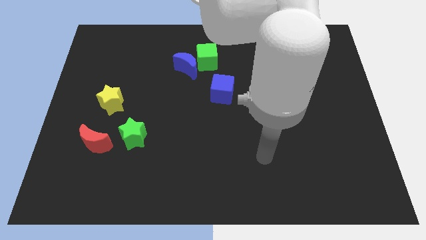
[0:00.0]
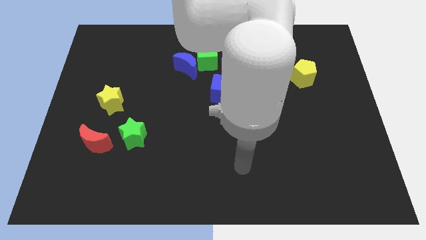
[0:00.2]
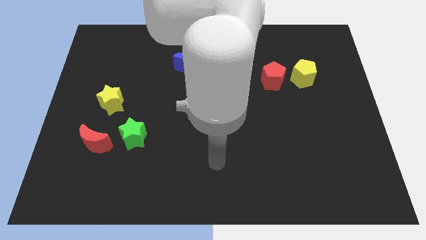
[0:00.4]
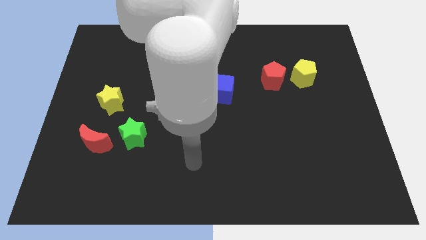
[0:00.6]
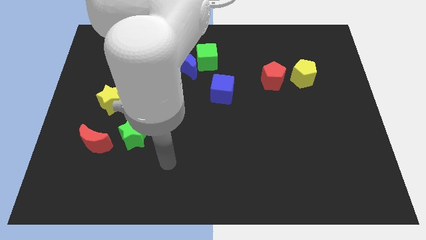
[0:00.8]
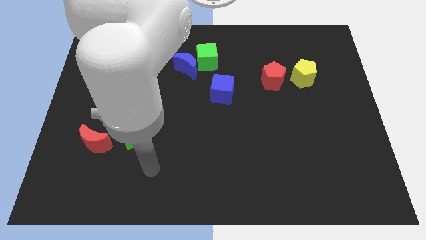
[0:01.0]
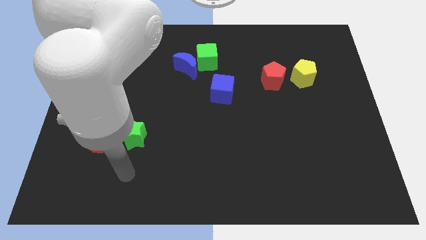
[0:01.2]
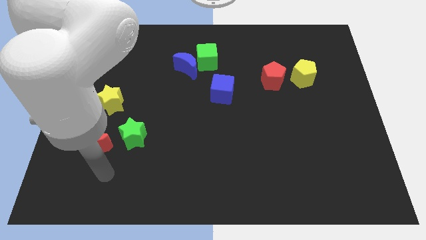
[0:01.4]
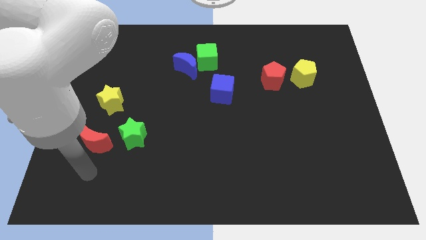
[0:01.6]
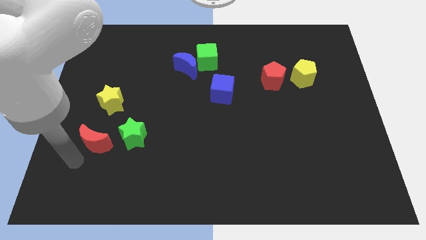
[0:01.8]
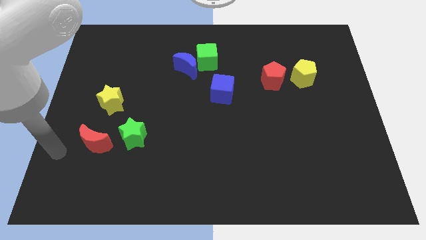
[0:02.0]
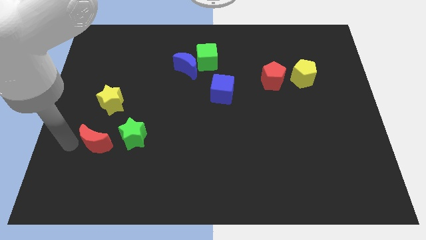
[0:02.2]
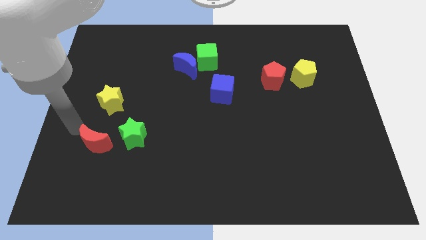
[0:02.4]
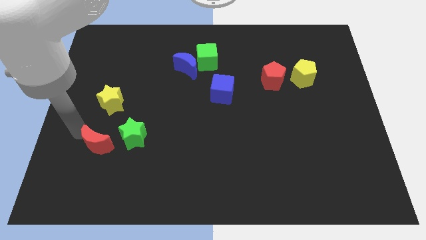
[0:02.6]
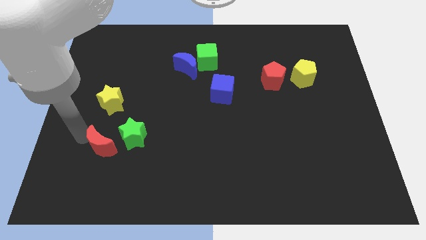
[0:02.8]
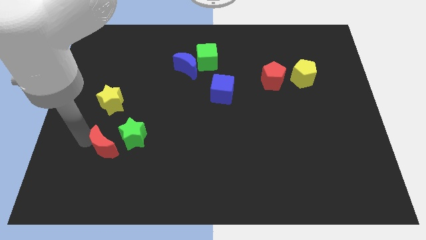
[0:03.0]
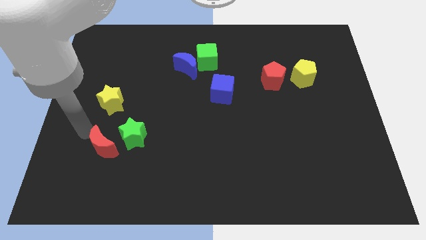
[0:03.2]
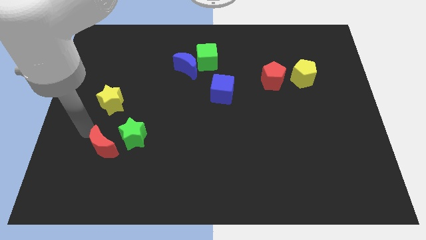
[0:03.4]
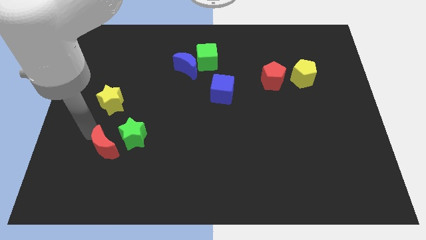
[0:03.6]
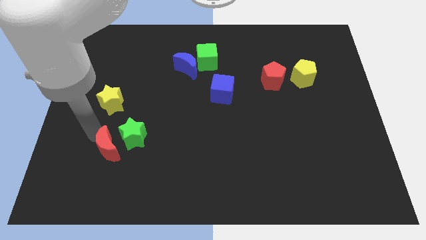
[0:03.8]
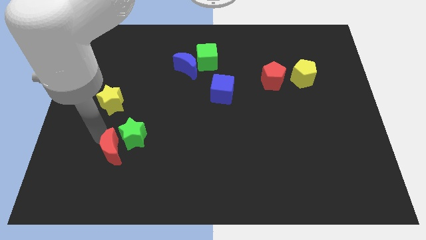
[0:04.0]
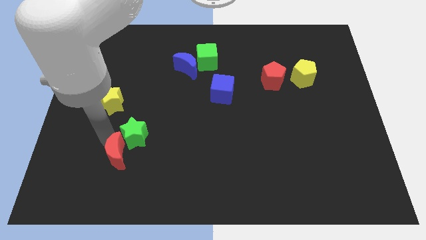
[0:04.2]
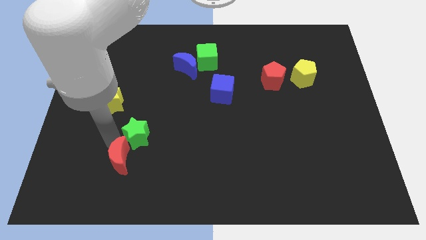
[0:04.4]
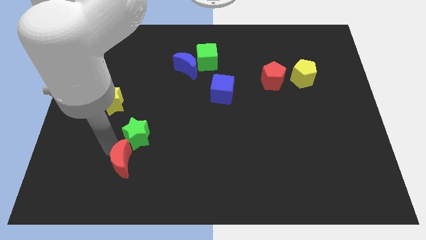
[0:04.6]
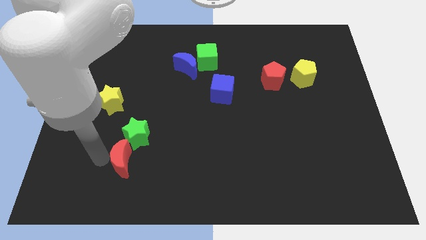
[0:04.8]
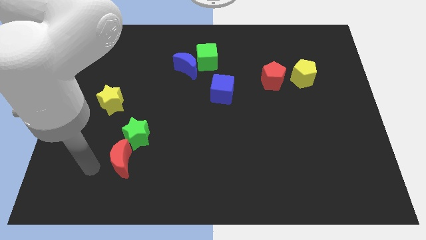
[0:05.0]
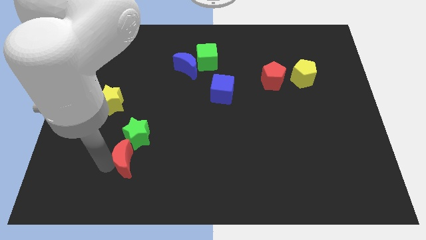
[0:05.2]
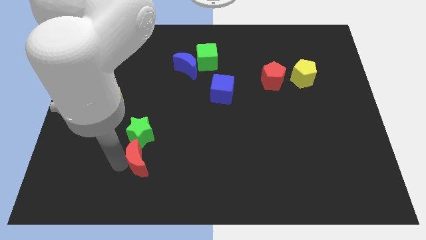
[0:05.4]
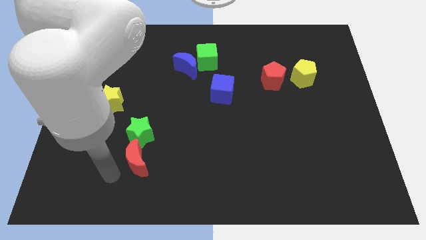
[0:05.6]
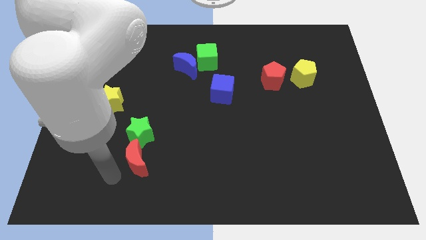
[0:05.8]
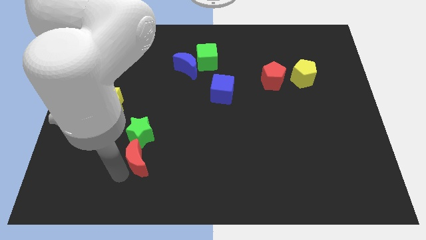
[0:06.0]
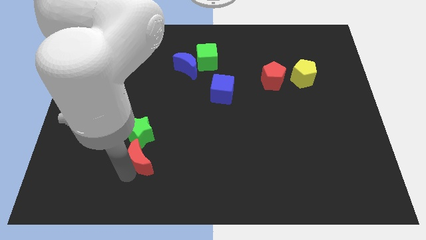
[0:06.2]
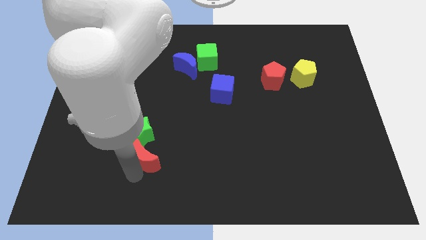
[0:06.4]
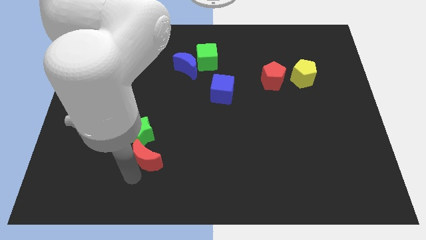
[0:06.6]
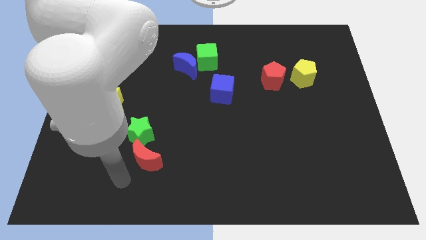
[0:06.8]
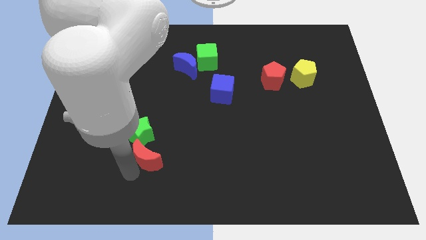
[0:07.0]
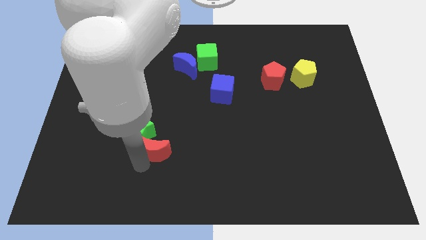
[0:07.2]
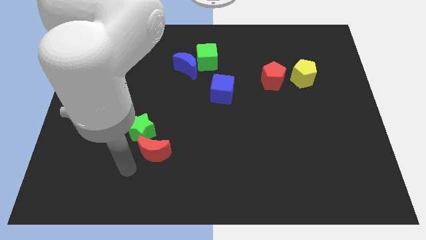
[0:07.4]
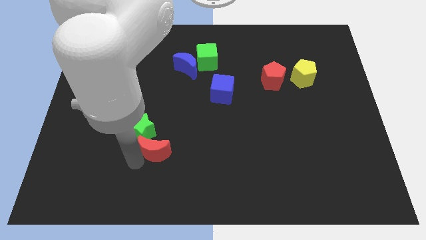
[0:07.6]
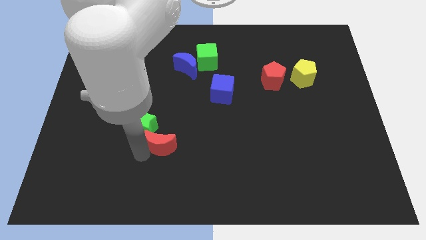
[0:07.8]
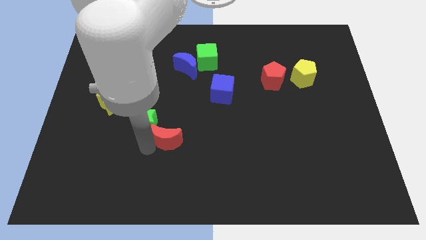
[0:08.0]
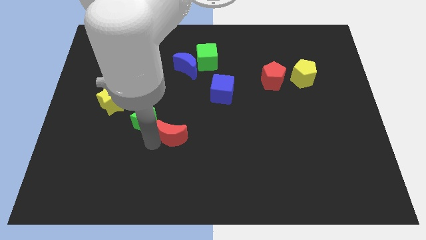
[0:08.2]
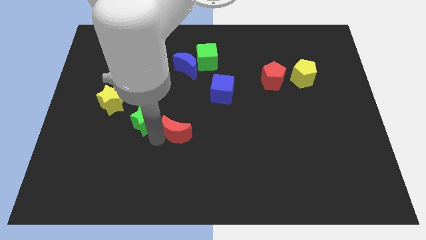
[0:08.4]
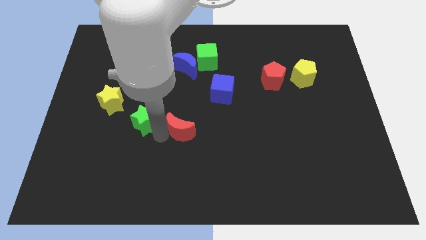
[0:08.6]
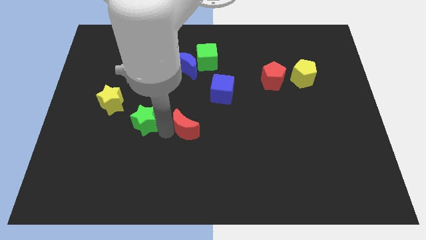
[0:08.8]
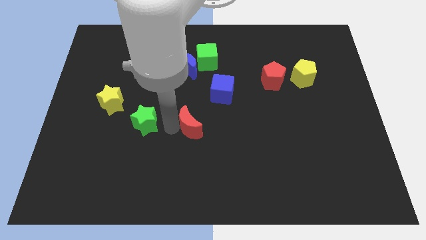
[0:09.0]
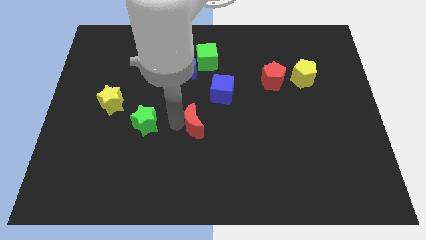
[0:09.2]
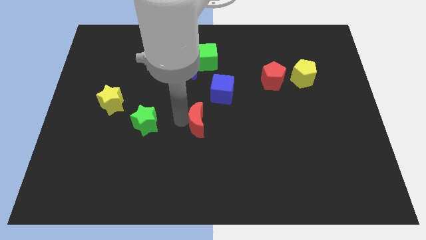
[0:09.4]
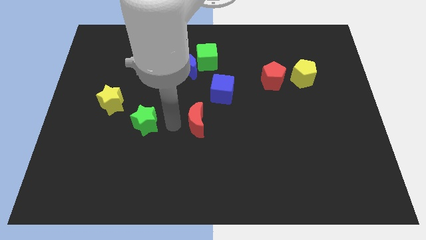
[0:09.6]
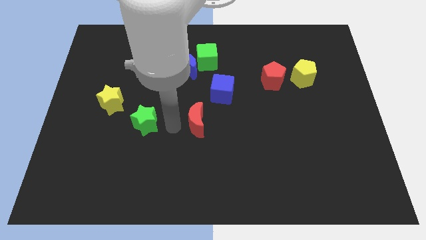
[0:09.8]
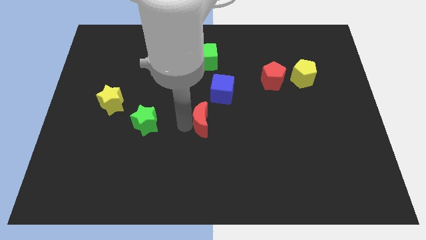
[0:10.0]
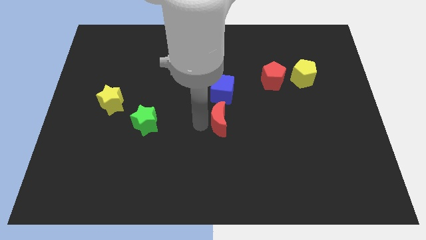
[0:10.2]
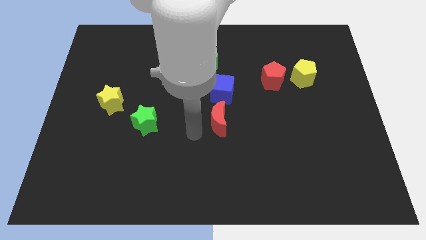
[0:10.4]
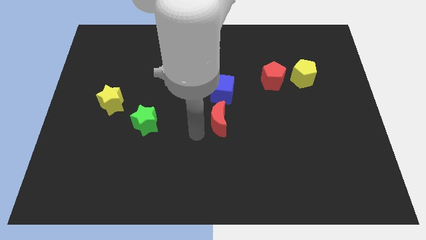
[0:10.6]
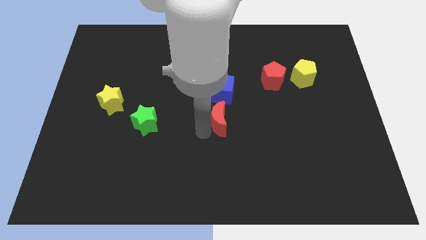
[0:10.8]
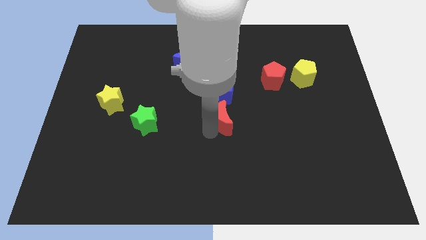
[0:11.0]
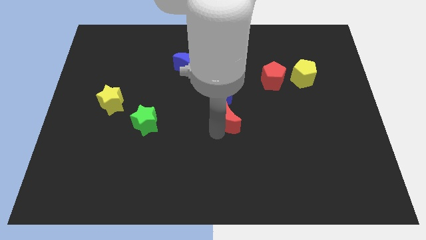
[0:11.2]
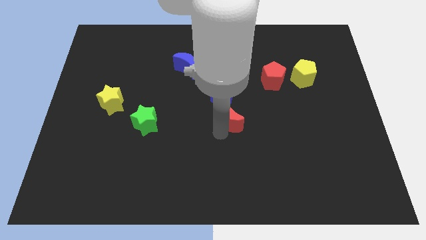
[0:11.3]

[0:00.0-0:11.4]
put the red moon diagonally down and to the right of the blue cube

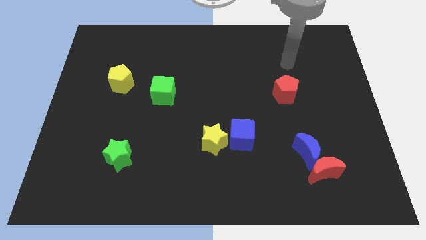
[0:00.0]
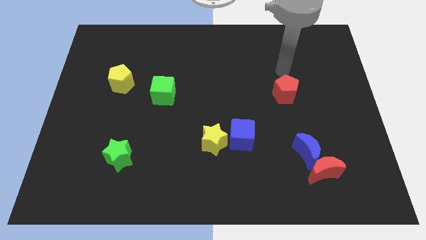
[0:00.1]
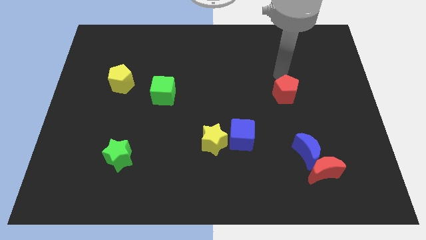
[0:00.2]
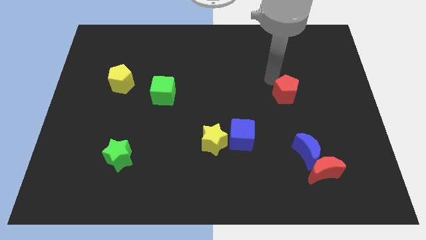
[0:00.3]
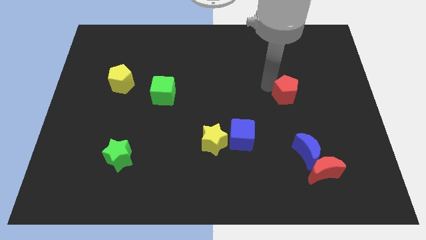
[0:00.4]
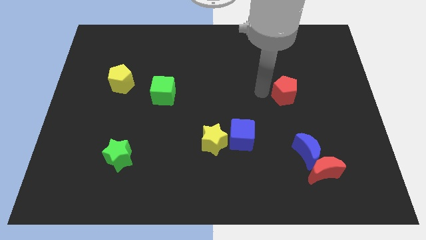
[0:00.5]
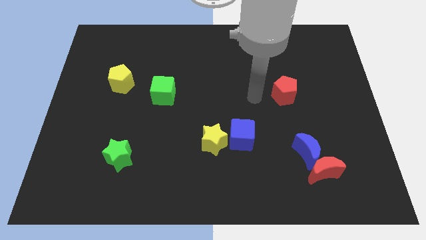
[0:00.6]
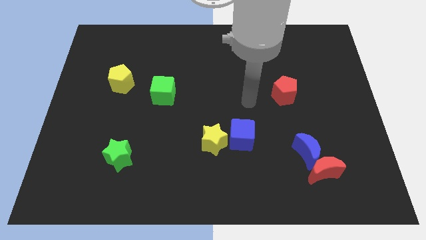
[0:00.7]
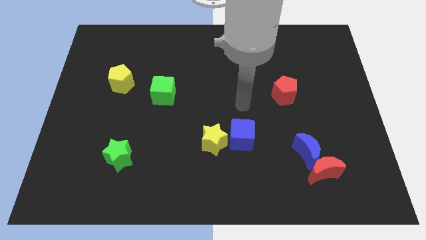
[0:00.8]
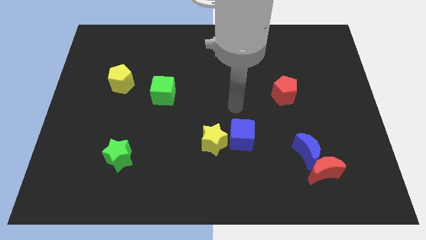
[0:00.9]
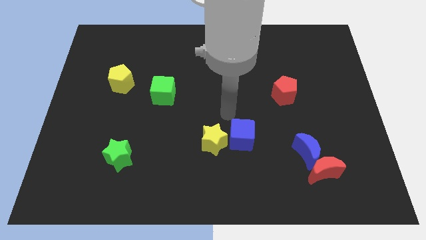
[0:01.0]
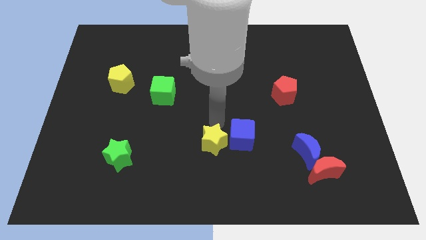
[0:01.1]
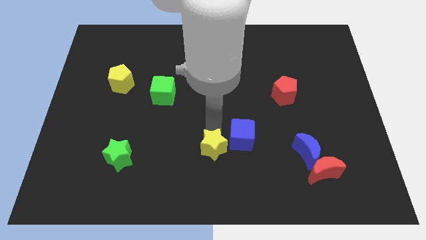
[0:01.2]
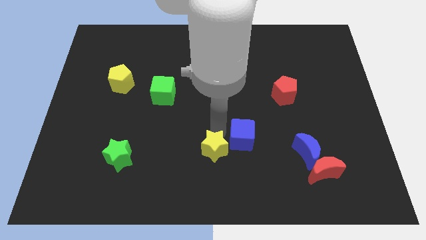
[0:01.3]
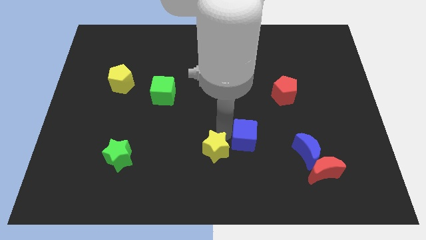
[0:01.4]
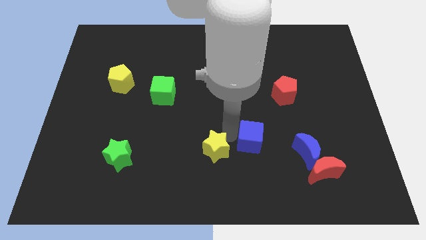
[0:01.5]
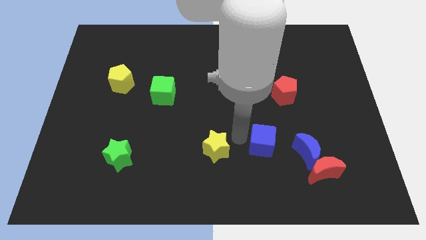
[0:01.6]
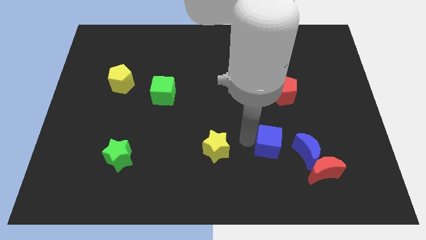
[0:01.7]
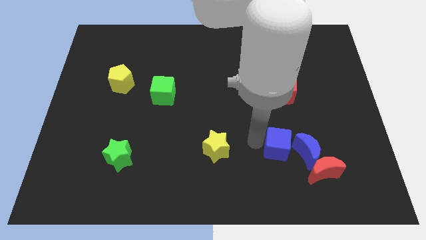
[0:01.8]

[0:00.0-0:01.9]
put the blue cube to the top left of the red moon
